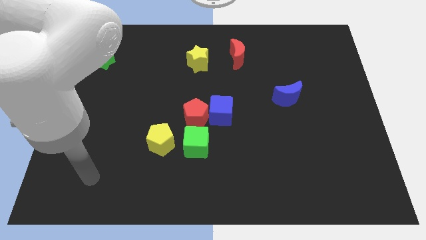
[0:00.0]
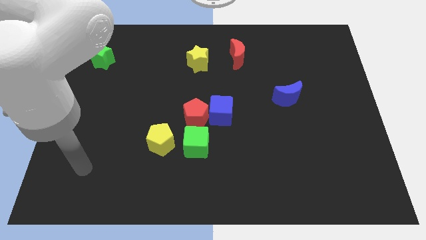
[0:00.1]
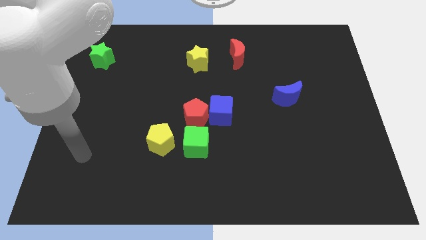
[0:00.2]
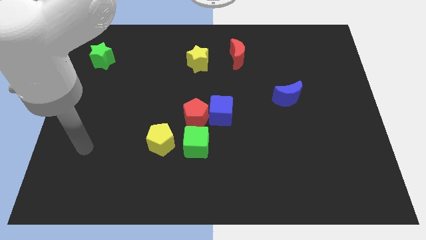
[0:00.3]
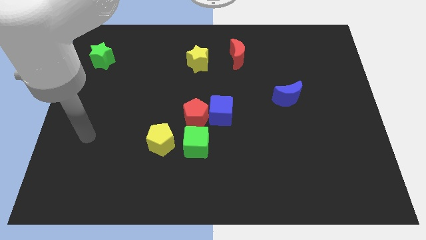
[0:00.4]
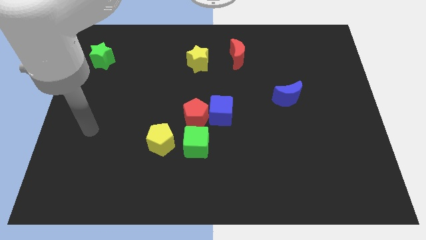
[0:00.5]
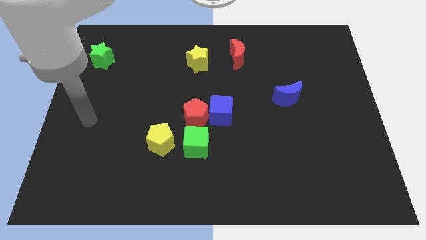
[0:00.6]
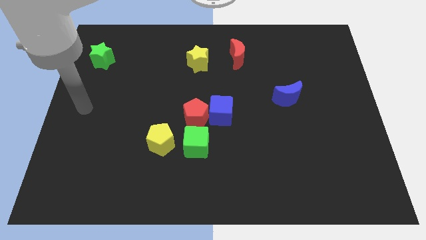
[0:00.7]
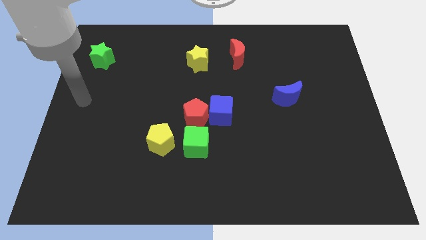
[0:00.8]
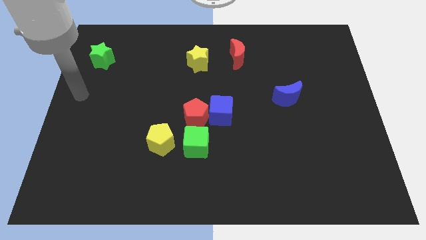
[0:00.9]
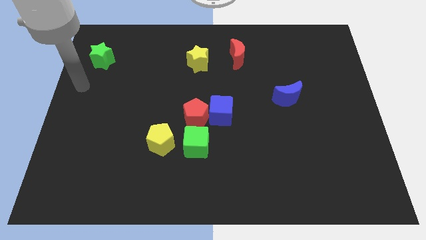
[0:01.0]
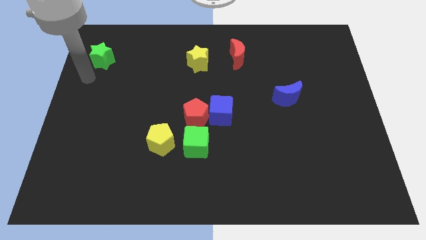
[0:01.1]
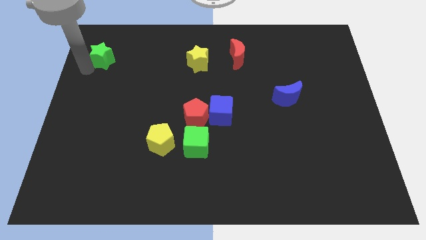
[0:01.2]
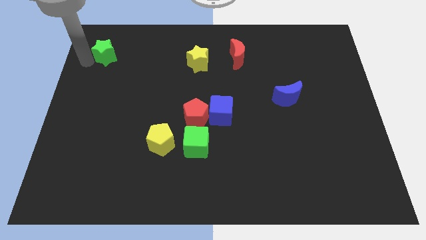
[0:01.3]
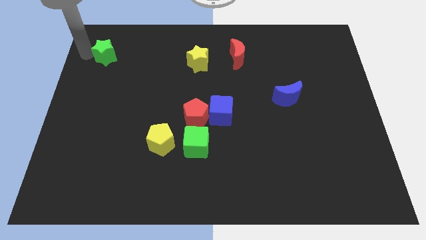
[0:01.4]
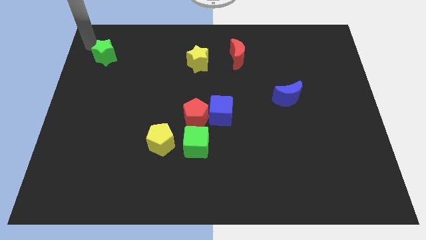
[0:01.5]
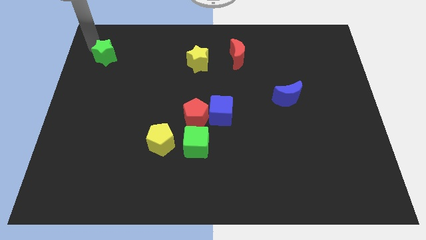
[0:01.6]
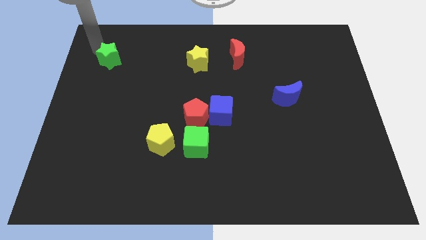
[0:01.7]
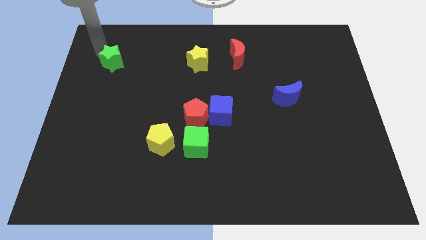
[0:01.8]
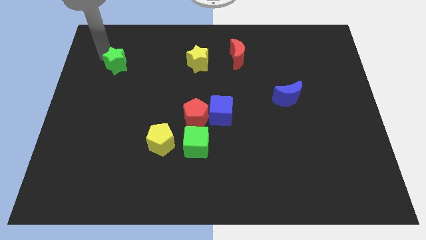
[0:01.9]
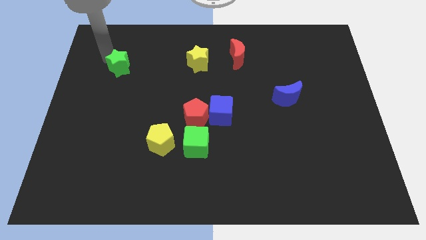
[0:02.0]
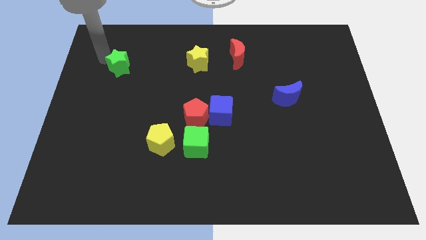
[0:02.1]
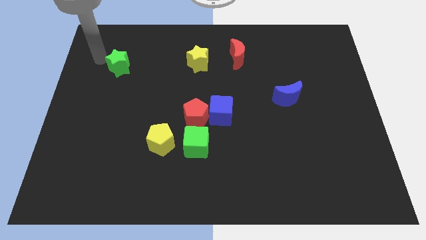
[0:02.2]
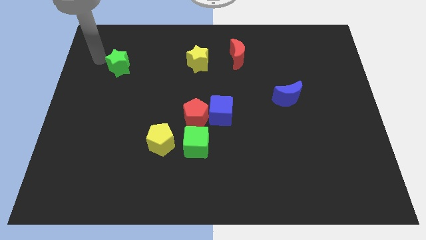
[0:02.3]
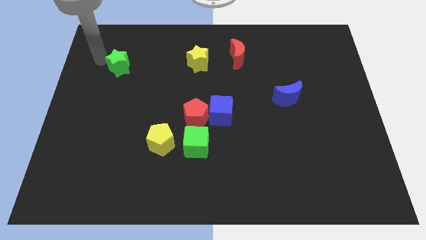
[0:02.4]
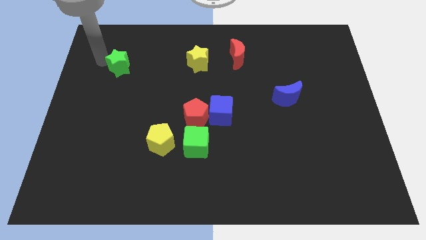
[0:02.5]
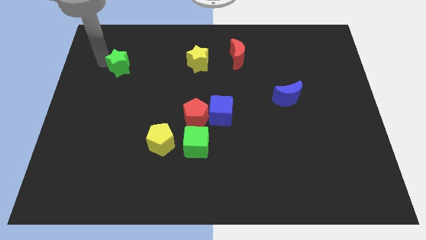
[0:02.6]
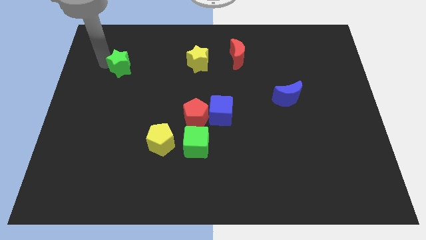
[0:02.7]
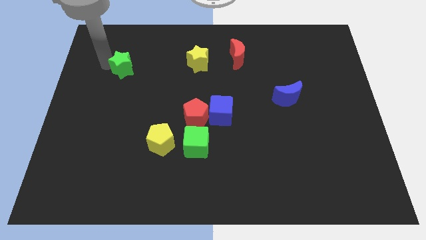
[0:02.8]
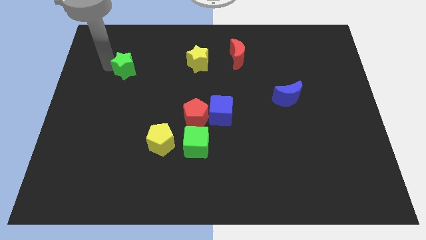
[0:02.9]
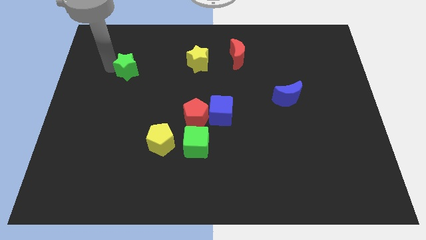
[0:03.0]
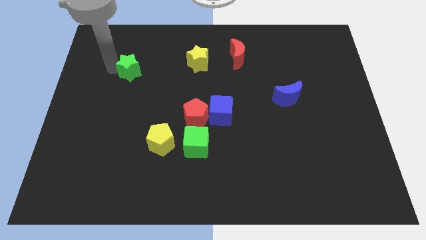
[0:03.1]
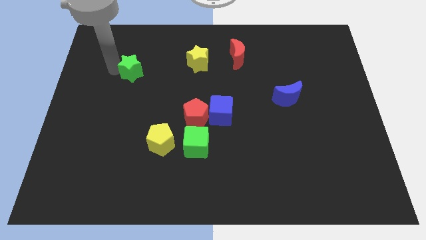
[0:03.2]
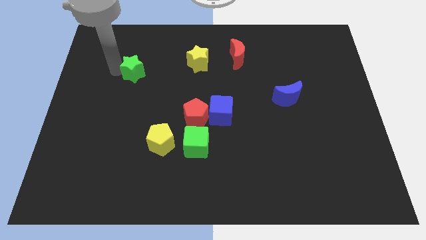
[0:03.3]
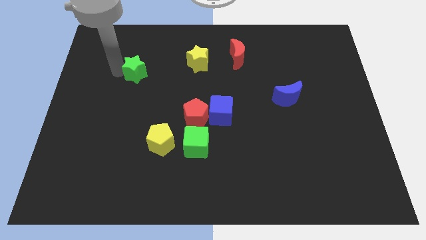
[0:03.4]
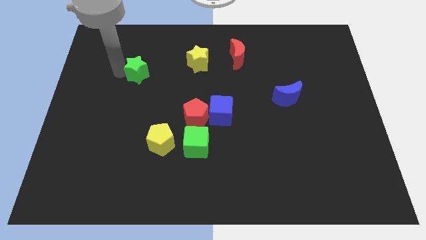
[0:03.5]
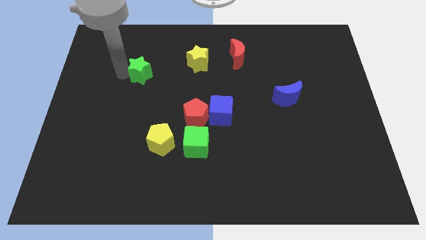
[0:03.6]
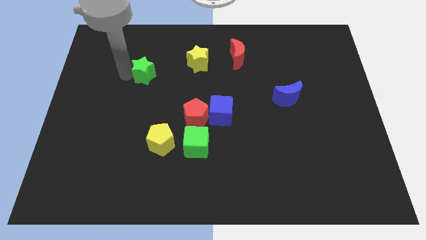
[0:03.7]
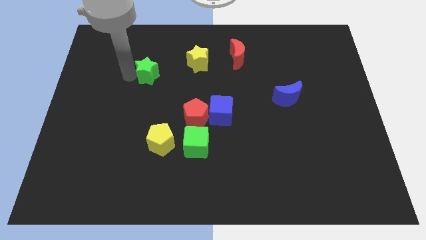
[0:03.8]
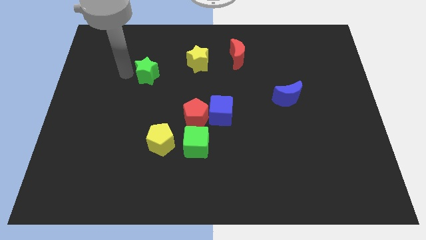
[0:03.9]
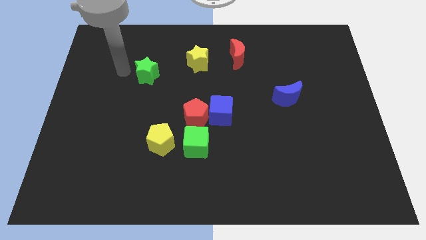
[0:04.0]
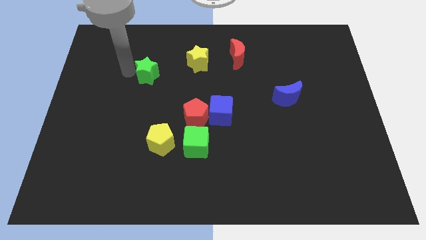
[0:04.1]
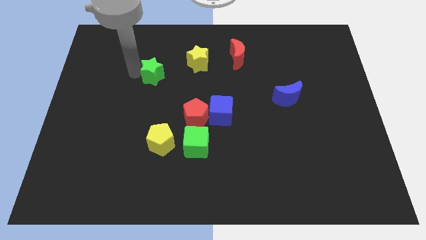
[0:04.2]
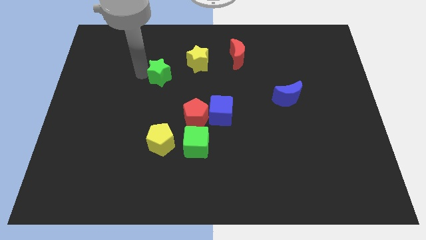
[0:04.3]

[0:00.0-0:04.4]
push the green star to the bottom left side of the yellow star

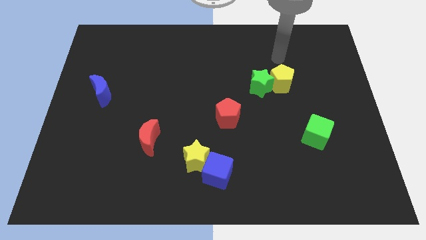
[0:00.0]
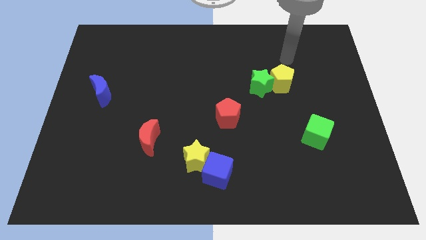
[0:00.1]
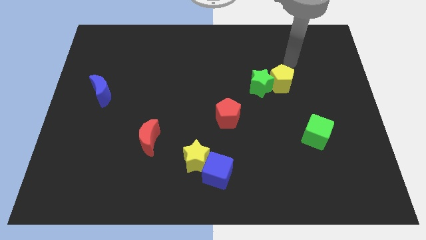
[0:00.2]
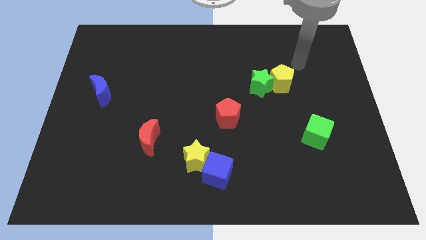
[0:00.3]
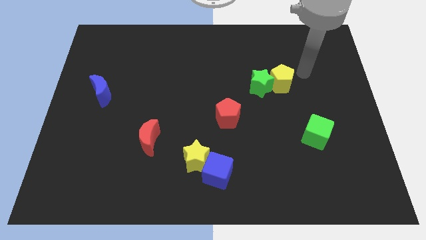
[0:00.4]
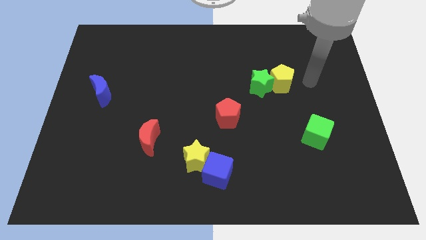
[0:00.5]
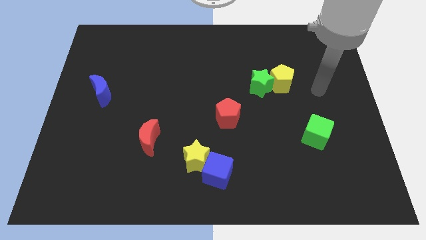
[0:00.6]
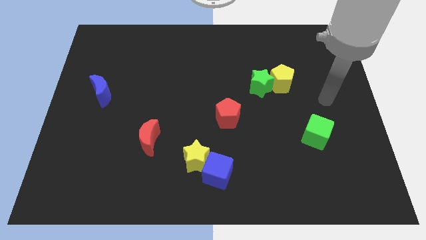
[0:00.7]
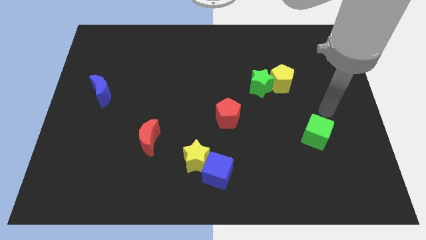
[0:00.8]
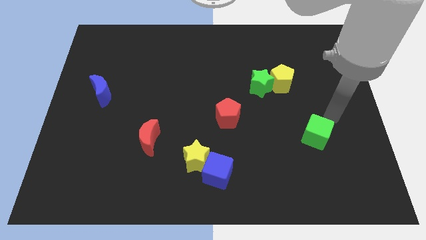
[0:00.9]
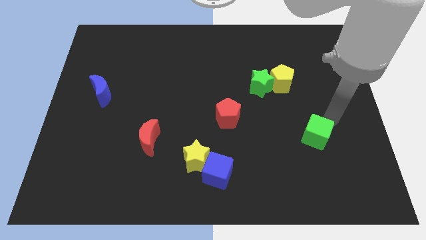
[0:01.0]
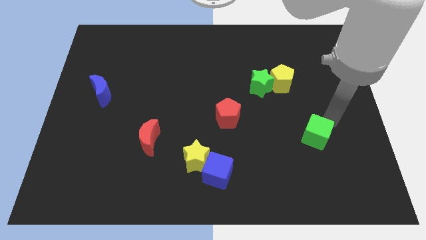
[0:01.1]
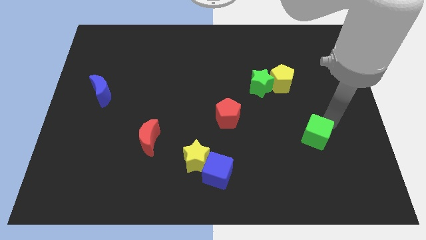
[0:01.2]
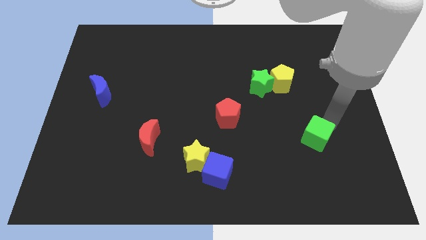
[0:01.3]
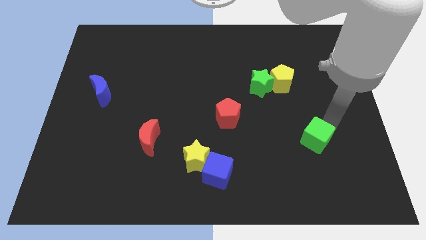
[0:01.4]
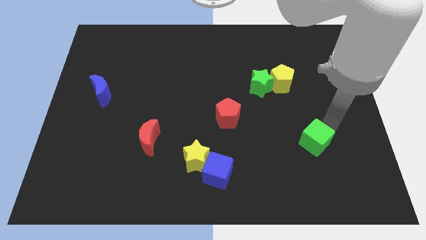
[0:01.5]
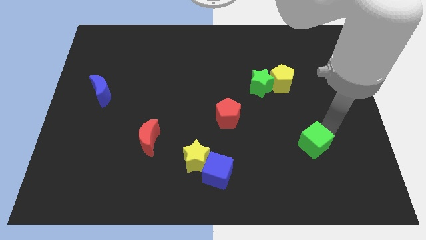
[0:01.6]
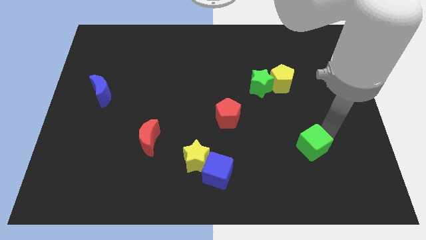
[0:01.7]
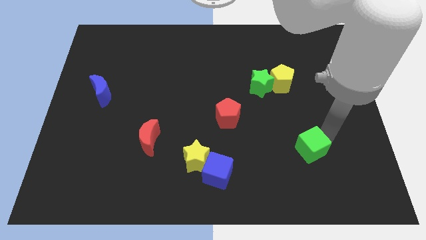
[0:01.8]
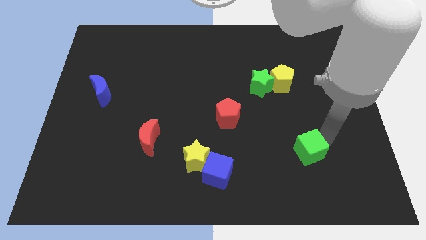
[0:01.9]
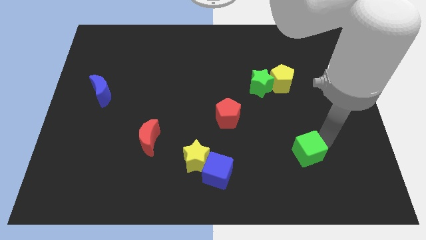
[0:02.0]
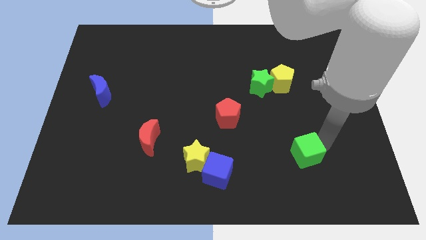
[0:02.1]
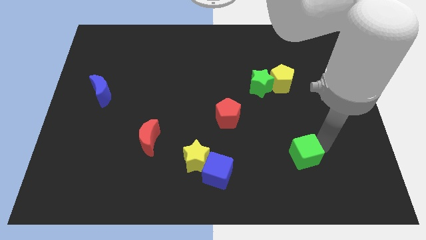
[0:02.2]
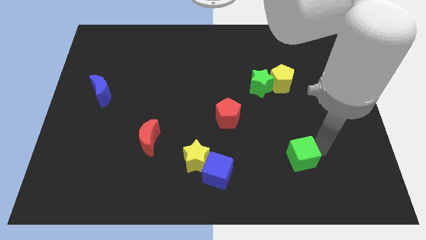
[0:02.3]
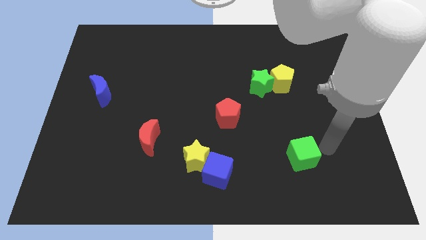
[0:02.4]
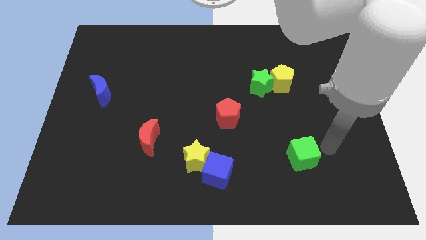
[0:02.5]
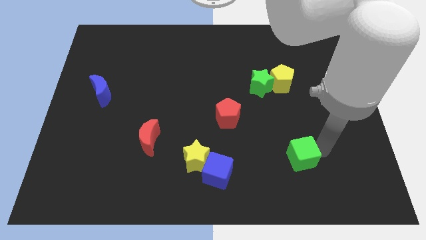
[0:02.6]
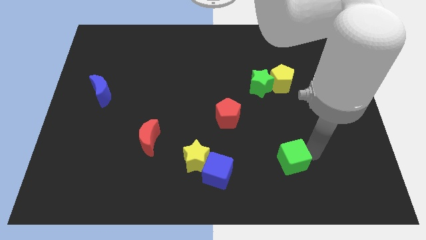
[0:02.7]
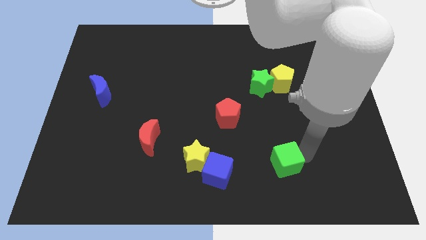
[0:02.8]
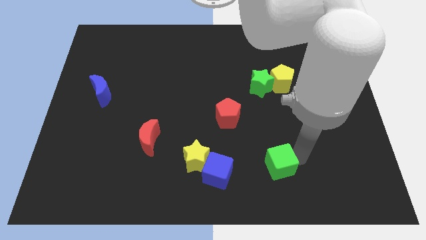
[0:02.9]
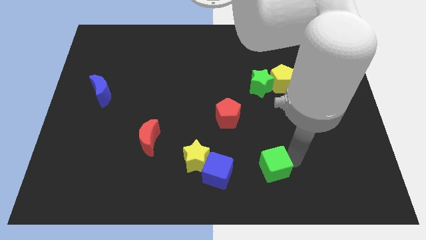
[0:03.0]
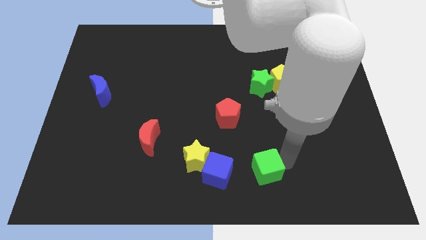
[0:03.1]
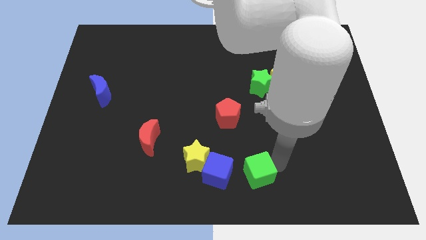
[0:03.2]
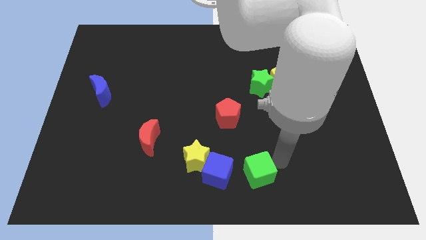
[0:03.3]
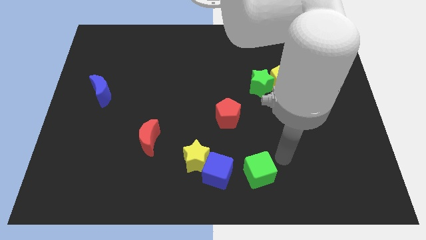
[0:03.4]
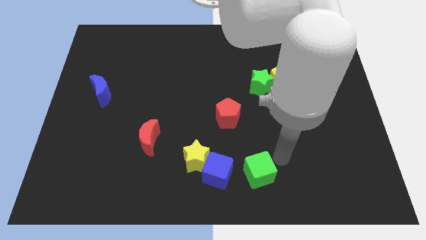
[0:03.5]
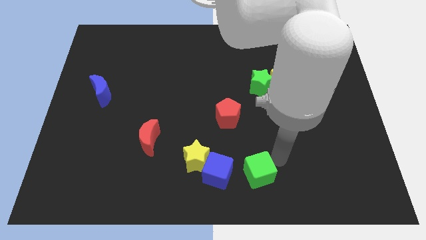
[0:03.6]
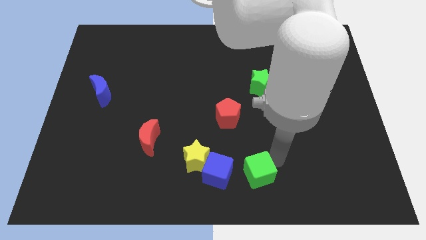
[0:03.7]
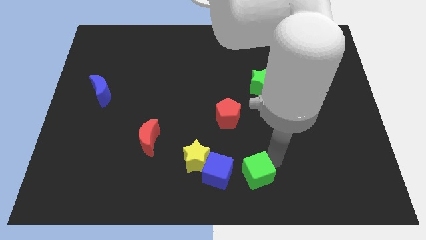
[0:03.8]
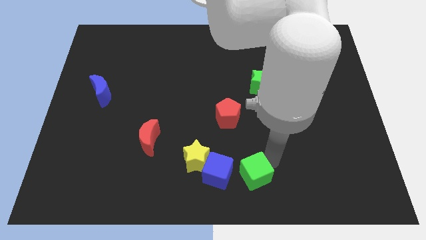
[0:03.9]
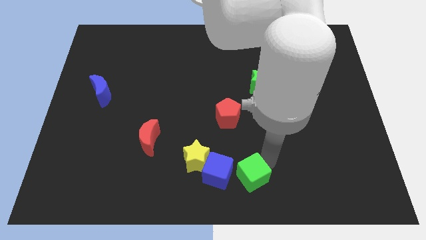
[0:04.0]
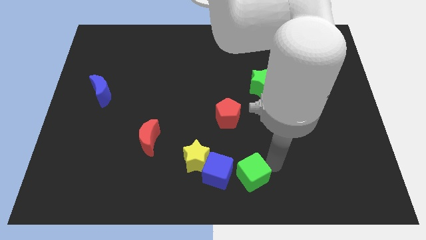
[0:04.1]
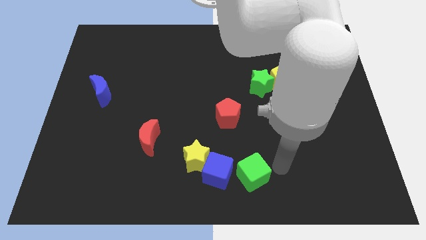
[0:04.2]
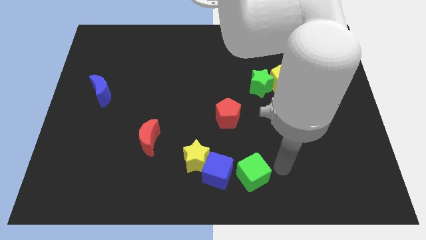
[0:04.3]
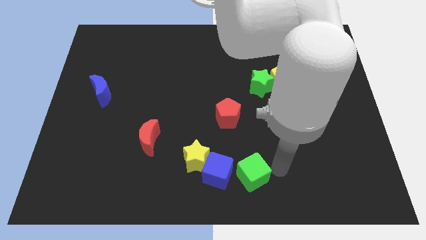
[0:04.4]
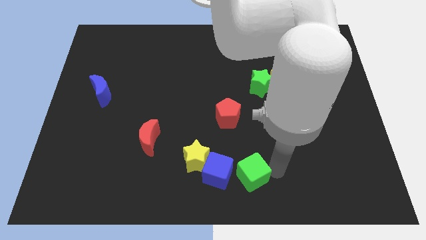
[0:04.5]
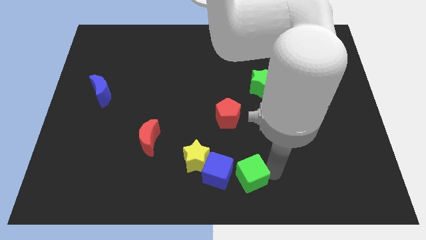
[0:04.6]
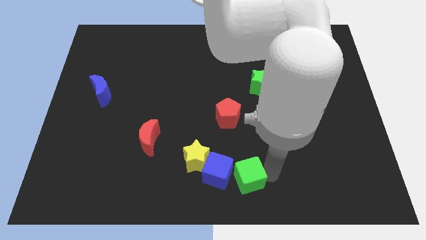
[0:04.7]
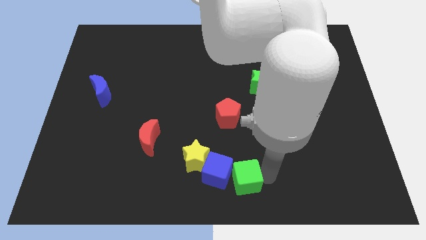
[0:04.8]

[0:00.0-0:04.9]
put the green cube to the bottom right of the yellow star
